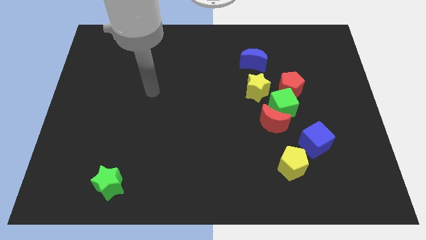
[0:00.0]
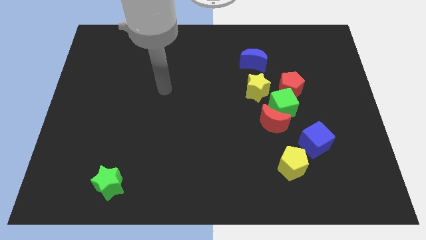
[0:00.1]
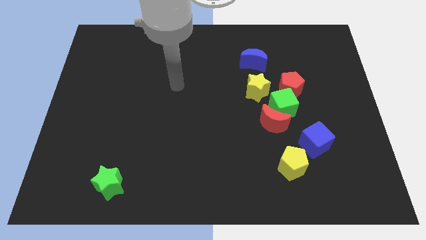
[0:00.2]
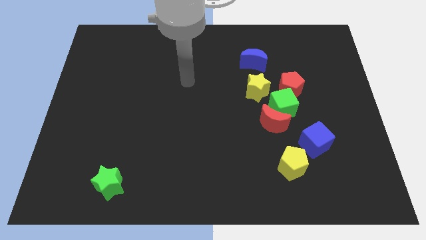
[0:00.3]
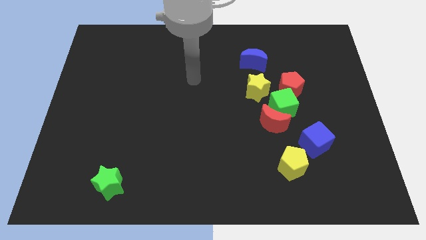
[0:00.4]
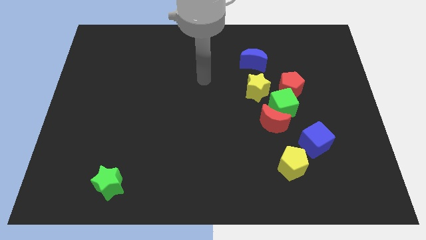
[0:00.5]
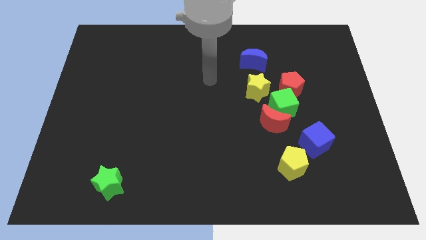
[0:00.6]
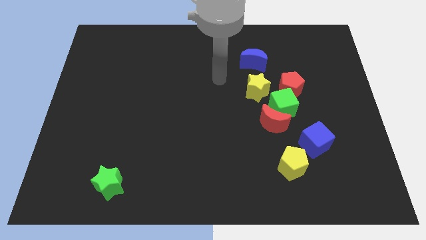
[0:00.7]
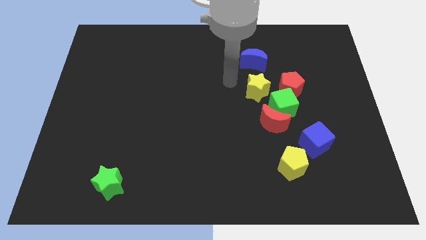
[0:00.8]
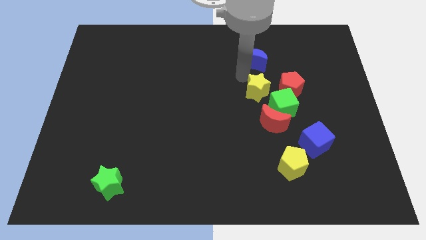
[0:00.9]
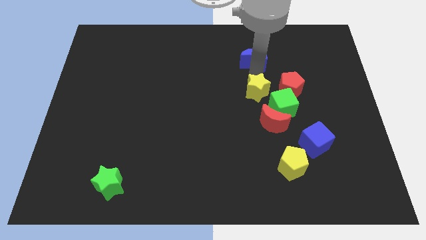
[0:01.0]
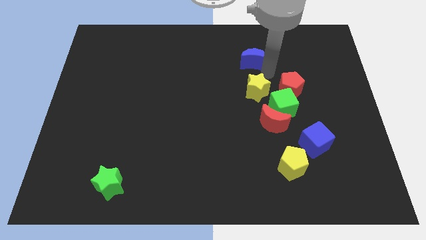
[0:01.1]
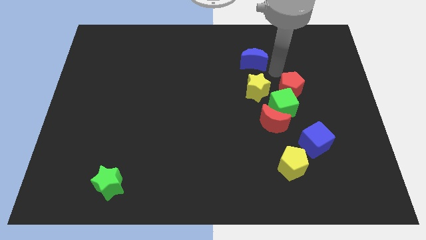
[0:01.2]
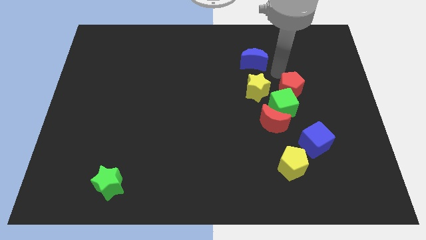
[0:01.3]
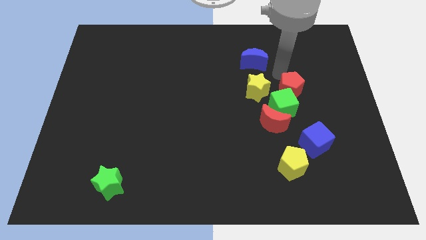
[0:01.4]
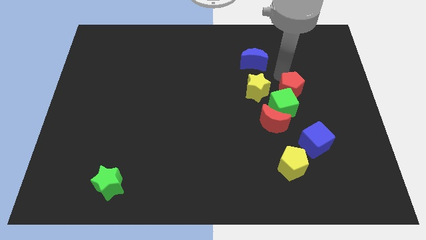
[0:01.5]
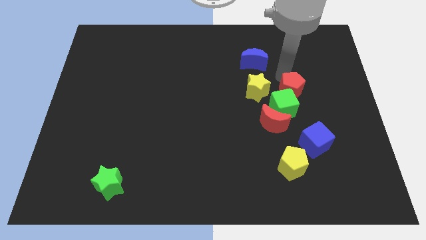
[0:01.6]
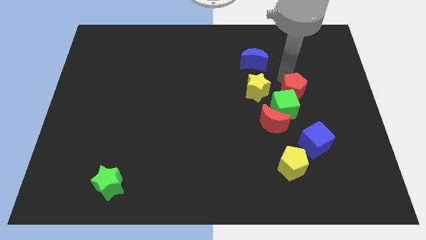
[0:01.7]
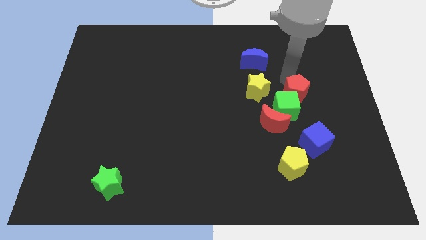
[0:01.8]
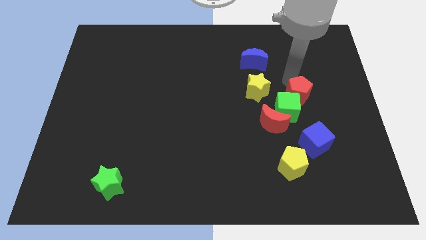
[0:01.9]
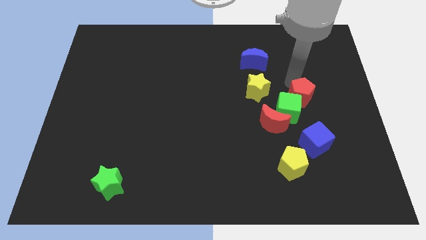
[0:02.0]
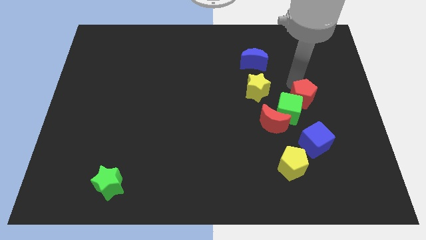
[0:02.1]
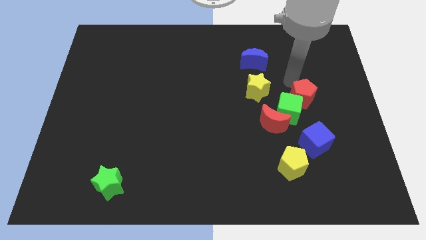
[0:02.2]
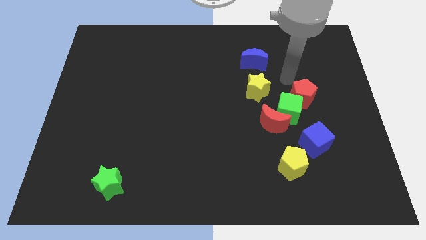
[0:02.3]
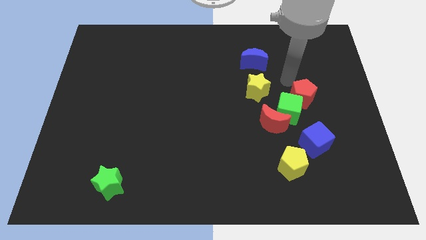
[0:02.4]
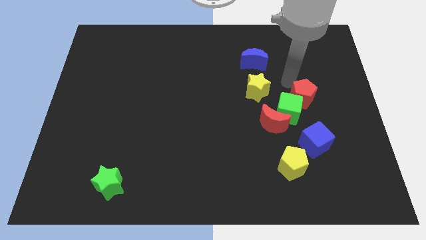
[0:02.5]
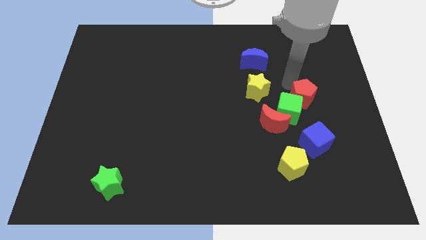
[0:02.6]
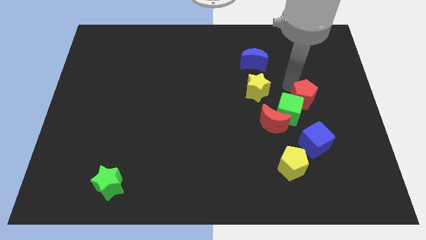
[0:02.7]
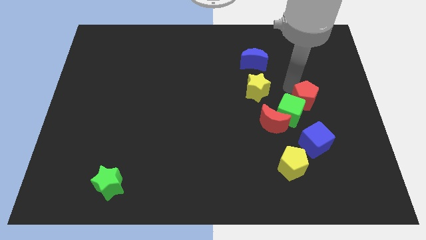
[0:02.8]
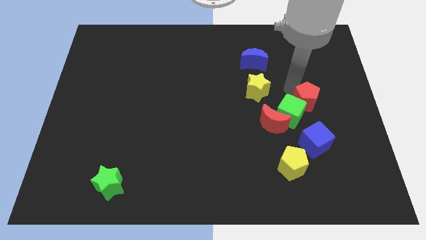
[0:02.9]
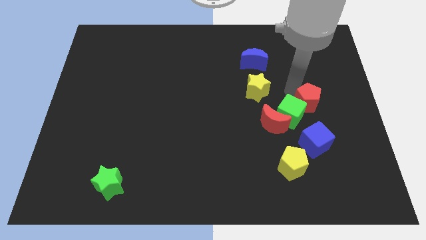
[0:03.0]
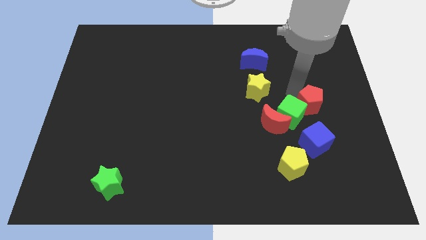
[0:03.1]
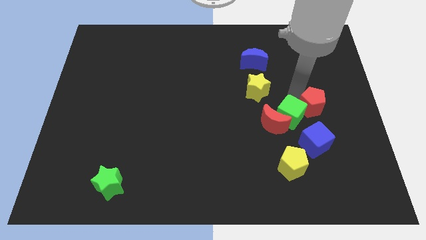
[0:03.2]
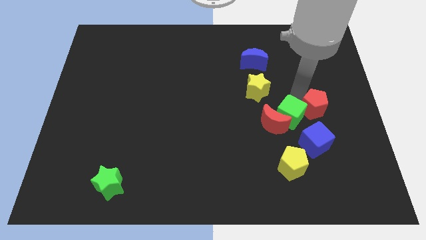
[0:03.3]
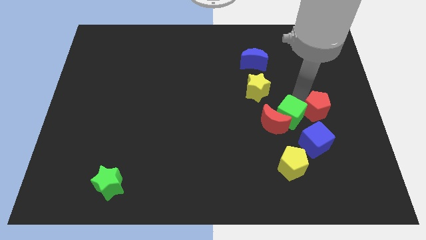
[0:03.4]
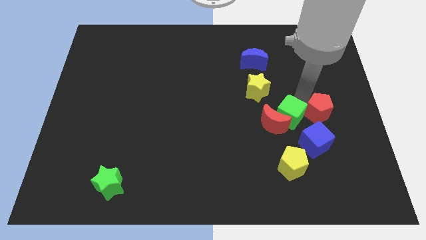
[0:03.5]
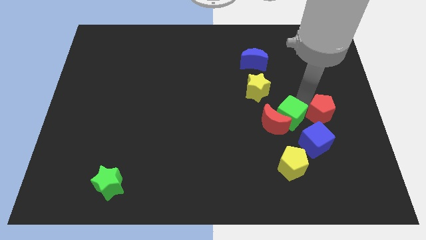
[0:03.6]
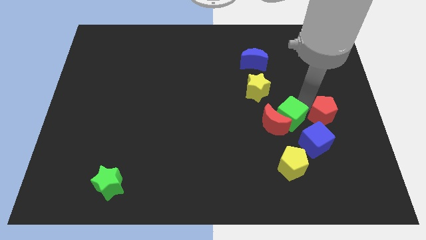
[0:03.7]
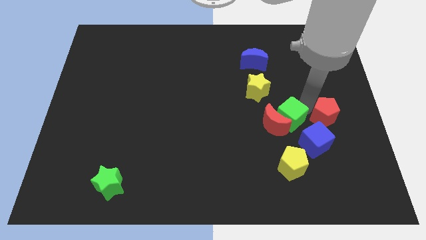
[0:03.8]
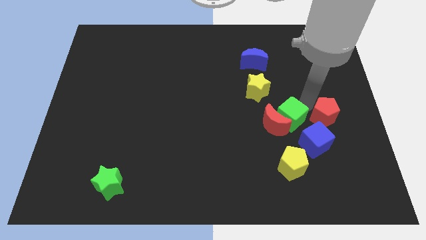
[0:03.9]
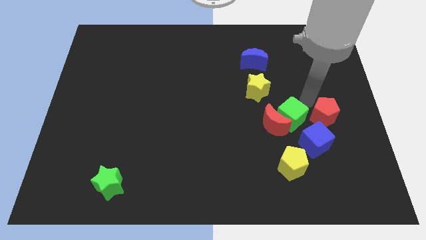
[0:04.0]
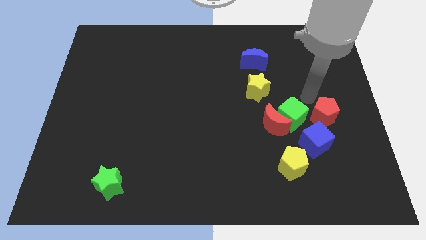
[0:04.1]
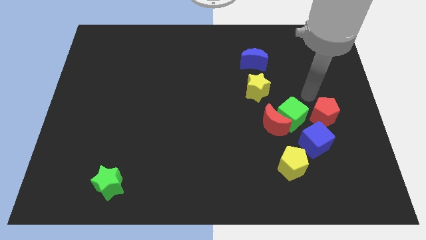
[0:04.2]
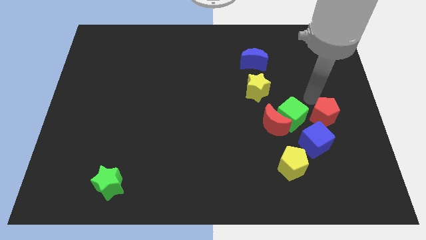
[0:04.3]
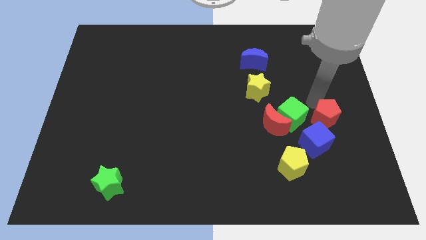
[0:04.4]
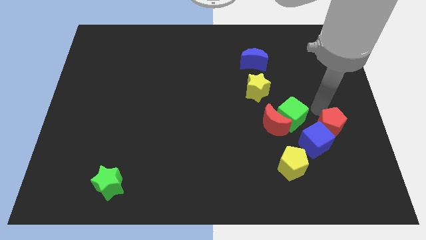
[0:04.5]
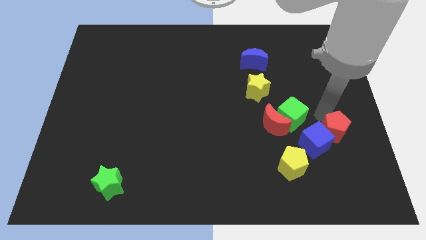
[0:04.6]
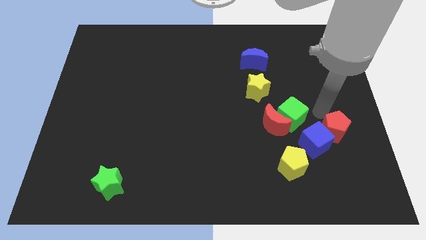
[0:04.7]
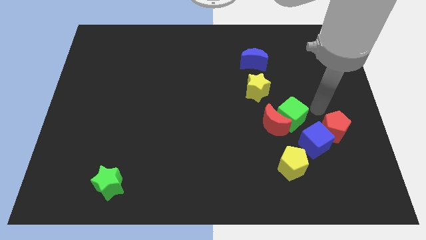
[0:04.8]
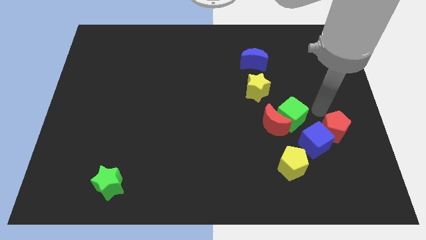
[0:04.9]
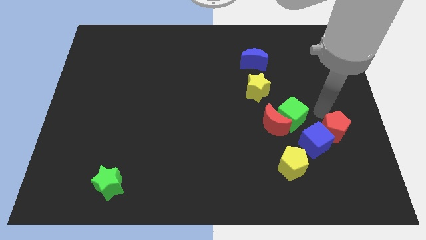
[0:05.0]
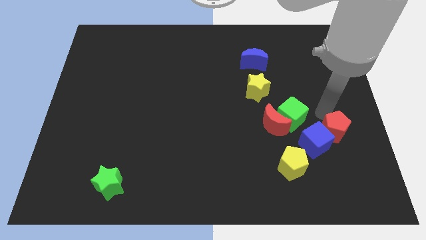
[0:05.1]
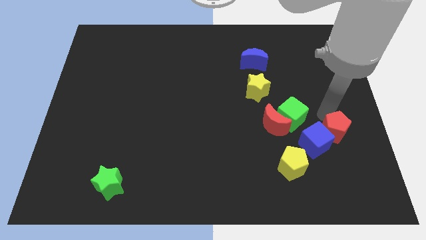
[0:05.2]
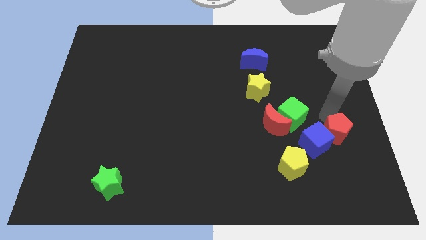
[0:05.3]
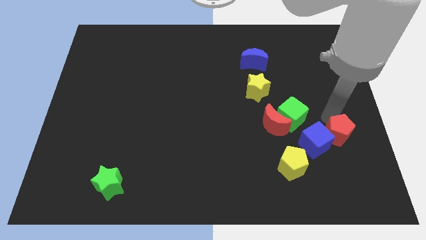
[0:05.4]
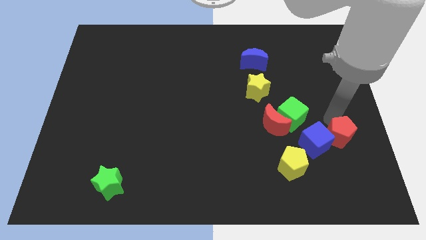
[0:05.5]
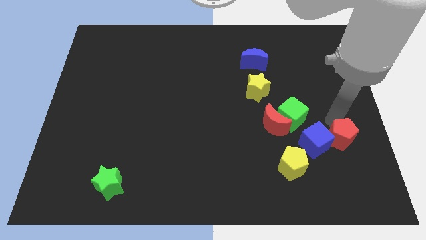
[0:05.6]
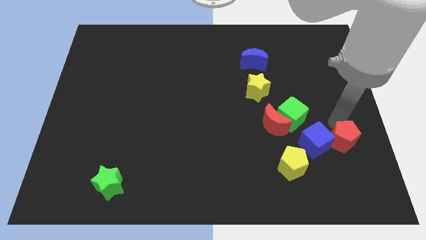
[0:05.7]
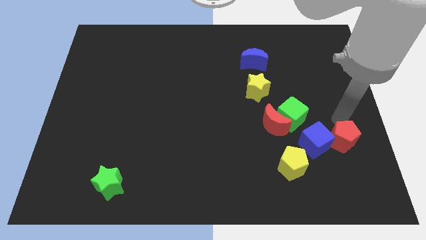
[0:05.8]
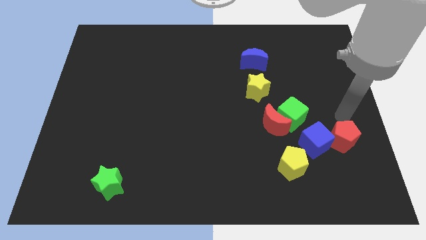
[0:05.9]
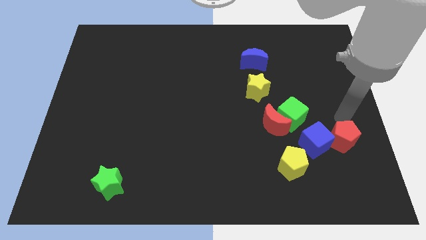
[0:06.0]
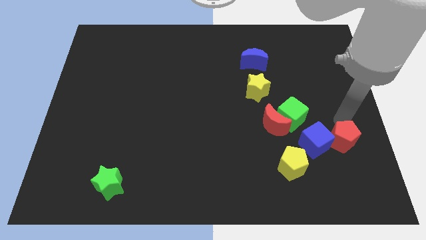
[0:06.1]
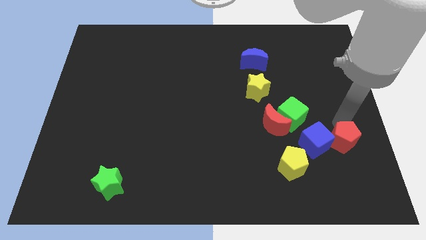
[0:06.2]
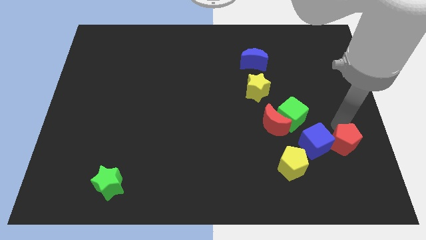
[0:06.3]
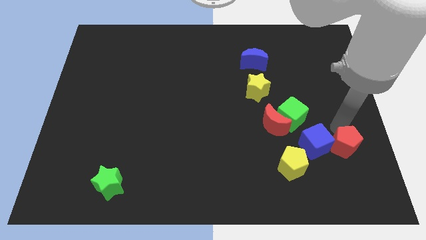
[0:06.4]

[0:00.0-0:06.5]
slide the red pentagon right of the yellow pentagon

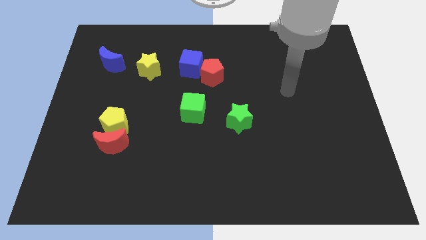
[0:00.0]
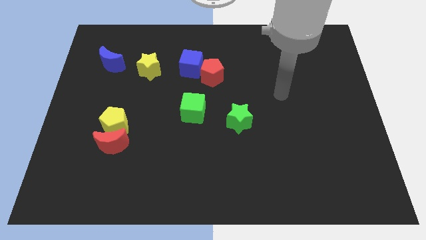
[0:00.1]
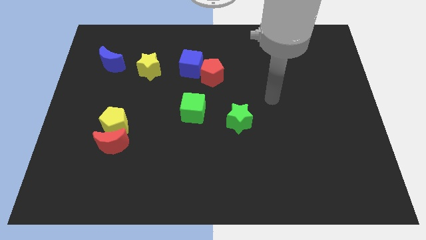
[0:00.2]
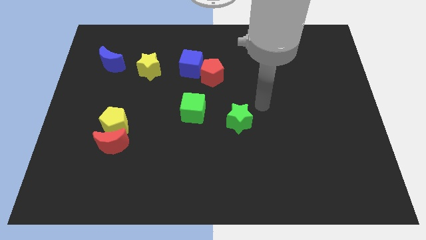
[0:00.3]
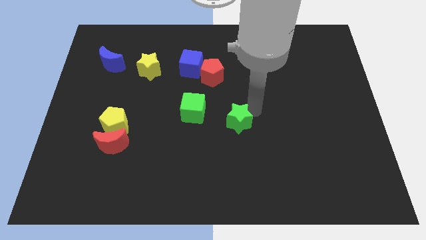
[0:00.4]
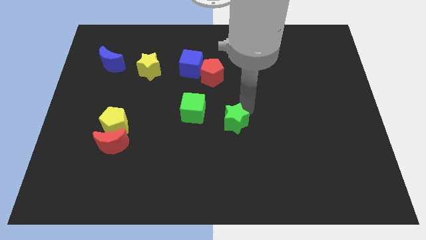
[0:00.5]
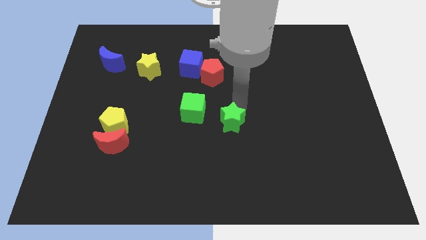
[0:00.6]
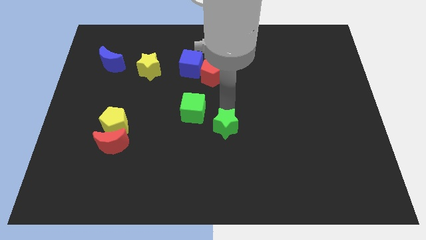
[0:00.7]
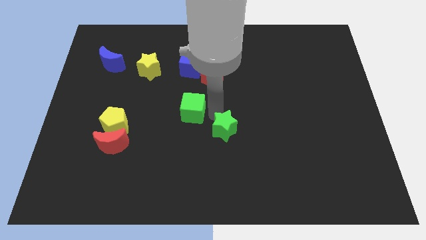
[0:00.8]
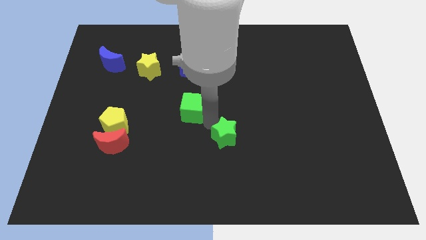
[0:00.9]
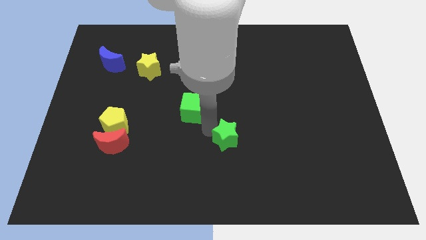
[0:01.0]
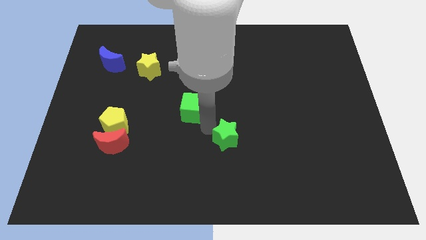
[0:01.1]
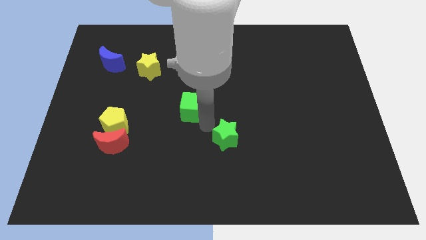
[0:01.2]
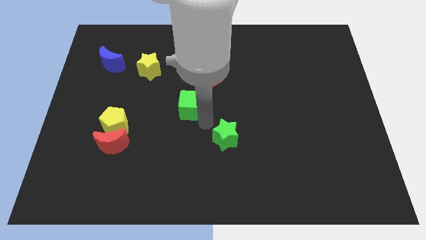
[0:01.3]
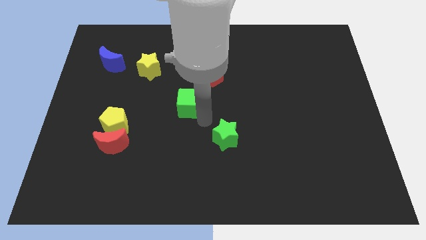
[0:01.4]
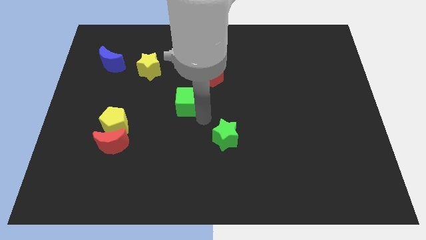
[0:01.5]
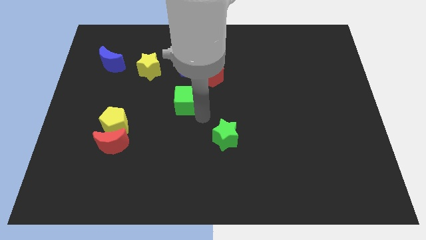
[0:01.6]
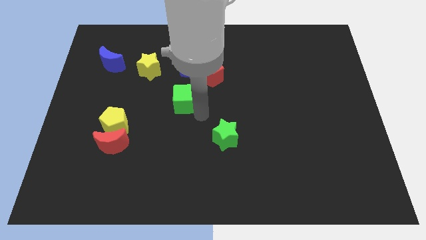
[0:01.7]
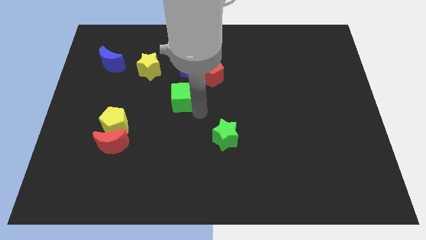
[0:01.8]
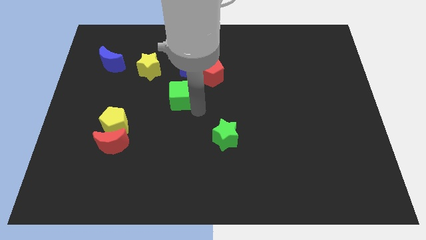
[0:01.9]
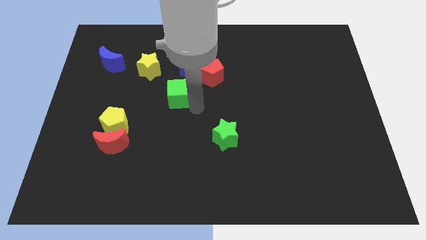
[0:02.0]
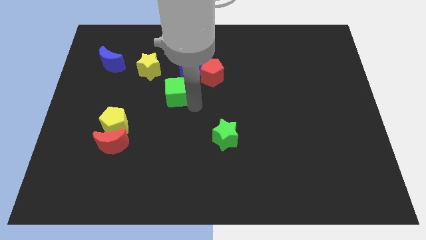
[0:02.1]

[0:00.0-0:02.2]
put the green cube diagonally down and to the left of the blue cube

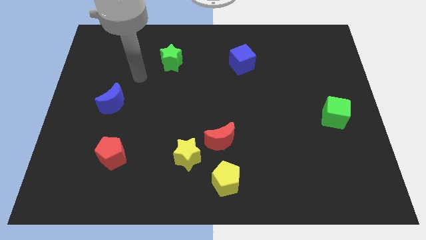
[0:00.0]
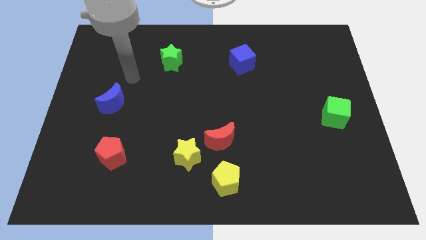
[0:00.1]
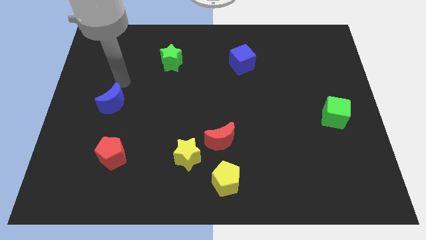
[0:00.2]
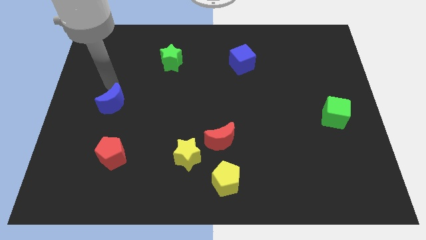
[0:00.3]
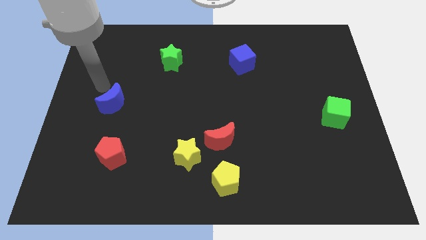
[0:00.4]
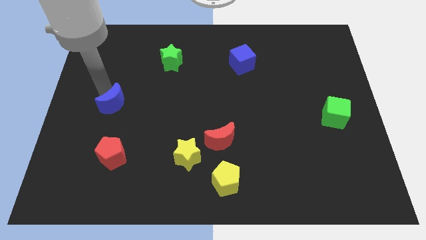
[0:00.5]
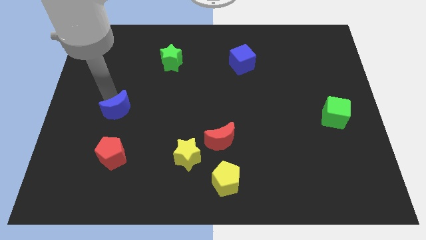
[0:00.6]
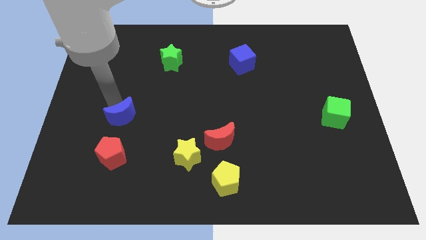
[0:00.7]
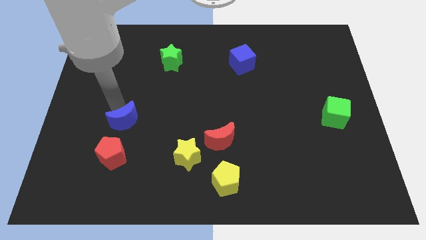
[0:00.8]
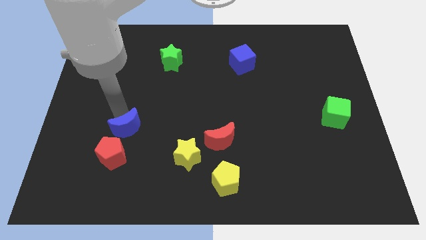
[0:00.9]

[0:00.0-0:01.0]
move the blue moon to the top right side of the red pentagon
